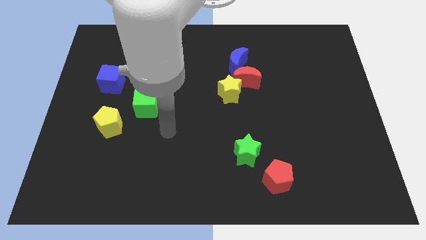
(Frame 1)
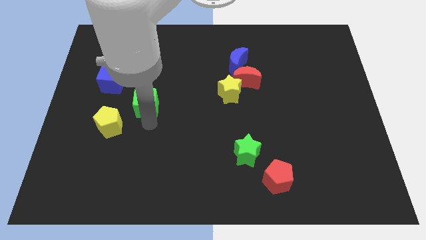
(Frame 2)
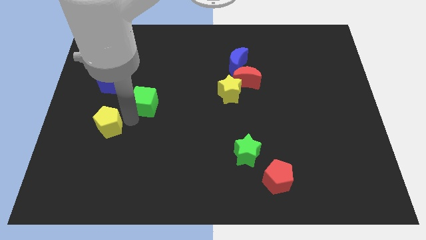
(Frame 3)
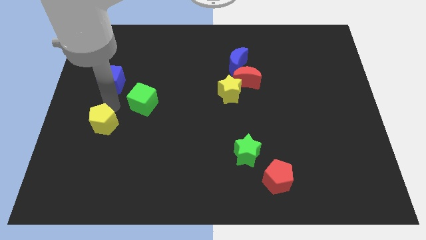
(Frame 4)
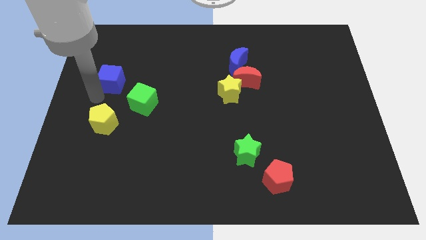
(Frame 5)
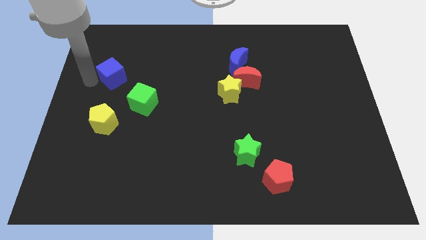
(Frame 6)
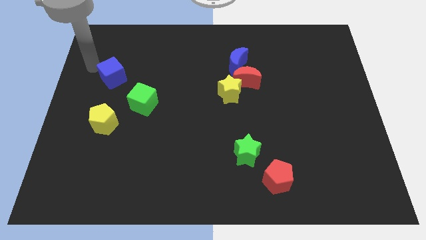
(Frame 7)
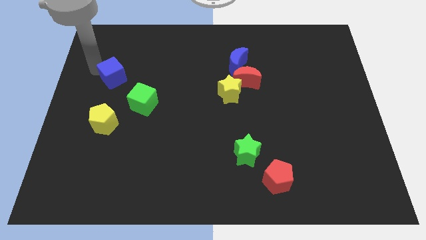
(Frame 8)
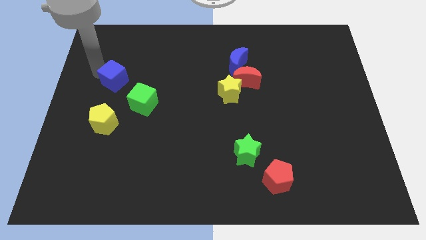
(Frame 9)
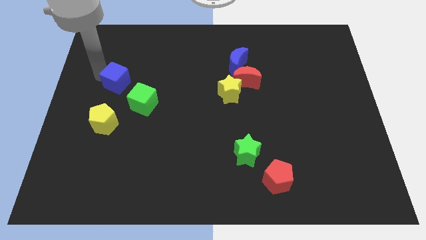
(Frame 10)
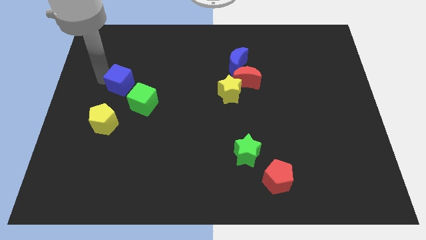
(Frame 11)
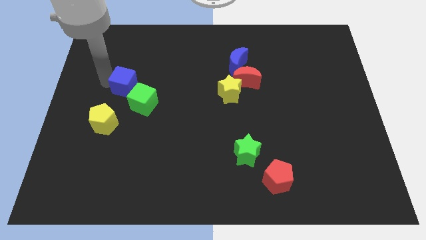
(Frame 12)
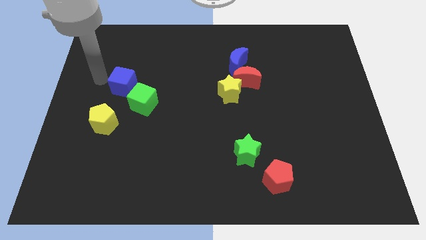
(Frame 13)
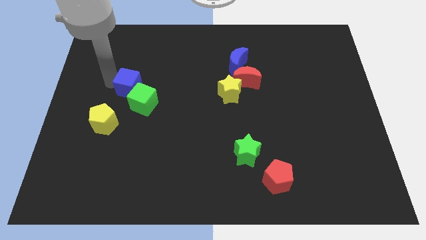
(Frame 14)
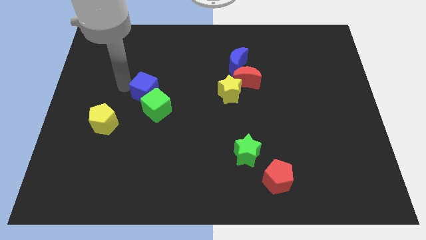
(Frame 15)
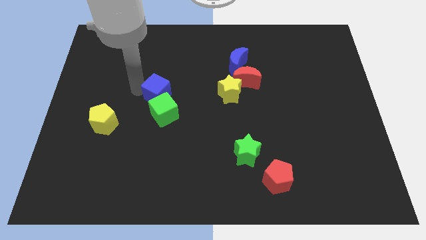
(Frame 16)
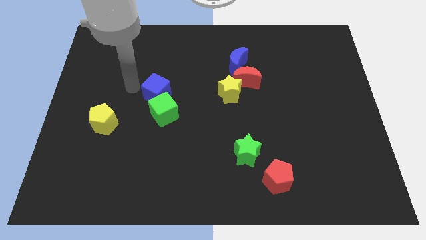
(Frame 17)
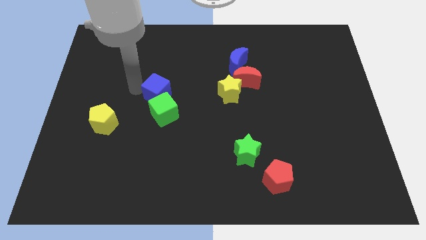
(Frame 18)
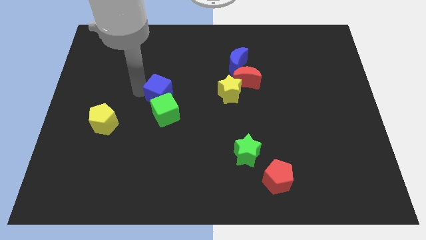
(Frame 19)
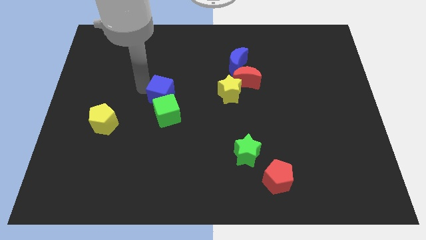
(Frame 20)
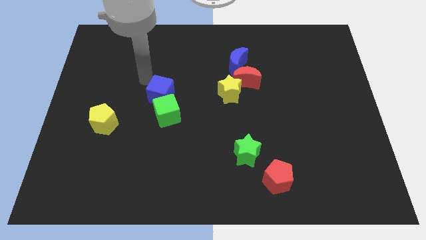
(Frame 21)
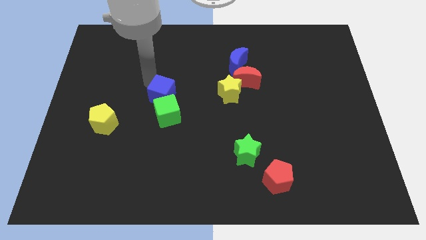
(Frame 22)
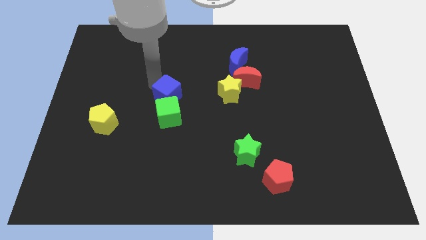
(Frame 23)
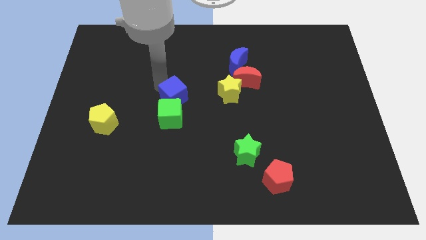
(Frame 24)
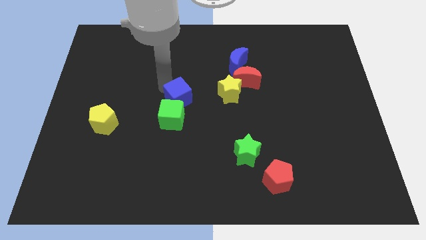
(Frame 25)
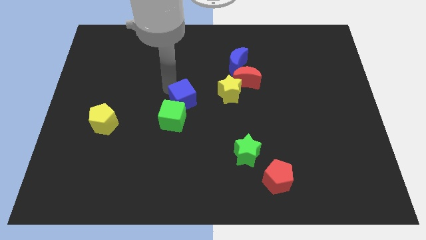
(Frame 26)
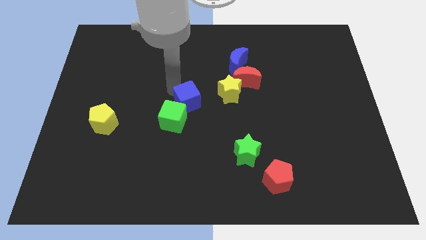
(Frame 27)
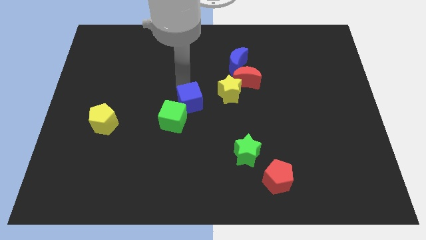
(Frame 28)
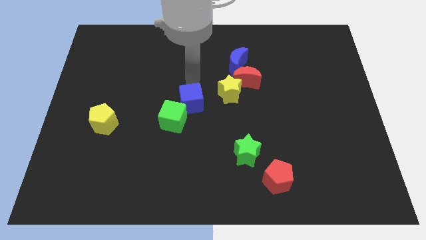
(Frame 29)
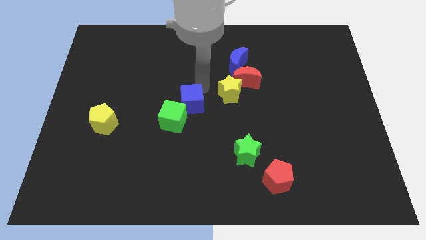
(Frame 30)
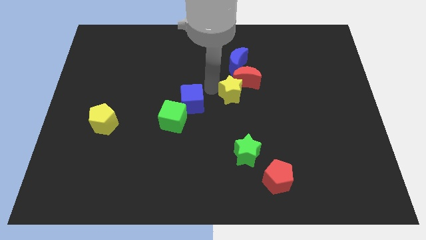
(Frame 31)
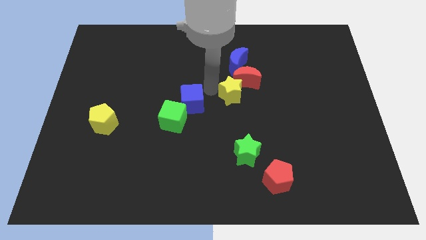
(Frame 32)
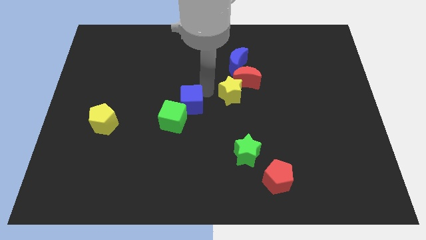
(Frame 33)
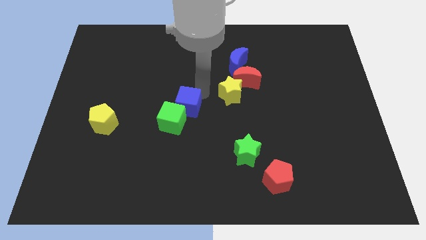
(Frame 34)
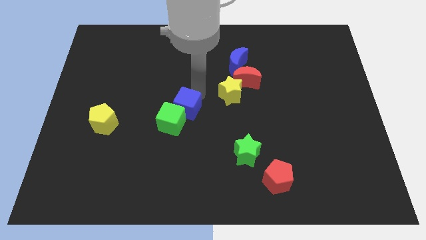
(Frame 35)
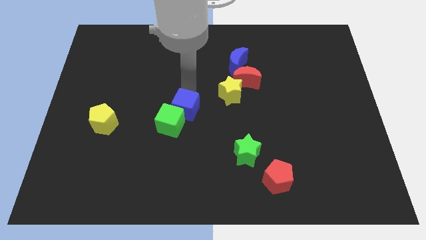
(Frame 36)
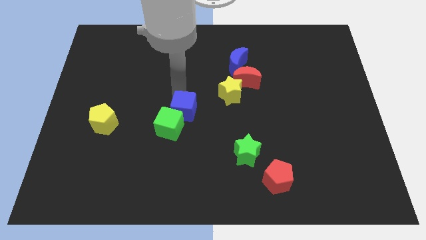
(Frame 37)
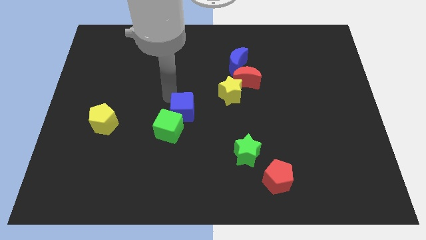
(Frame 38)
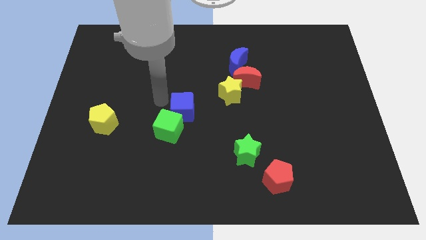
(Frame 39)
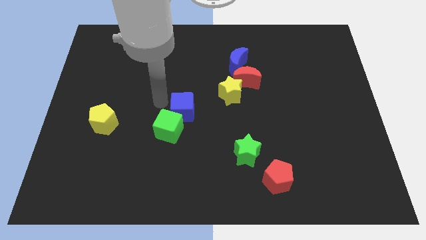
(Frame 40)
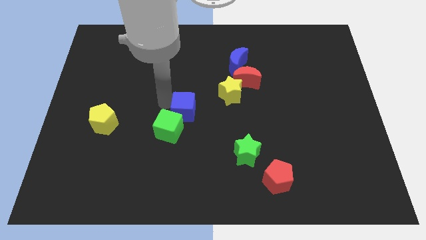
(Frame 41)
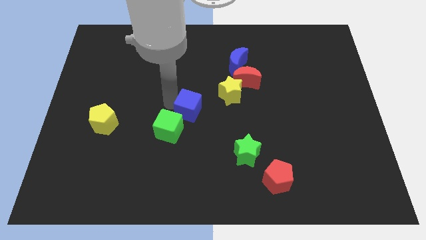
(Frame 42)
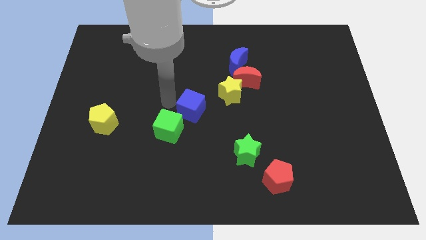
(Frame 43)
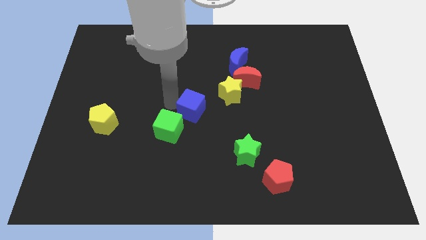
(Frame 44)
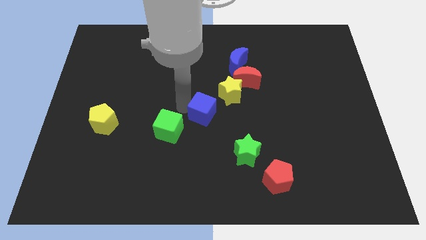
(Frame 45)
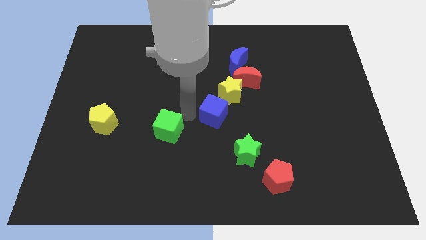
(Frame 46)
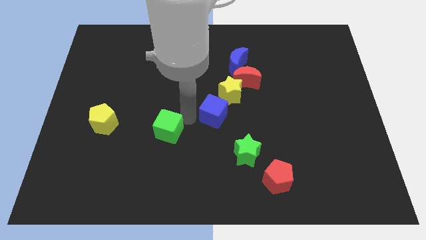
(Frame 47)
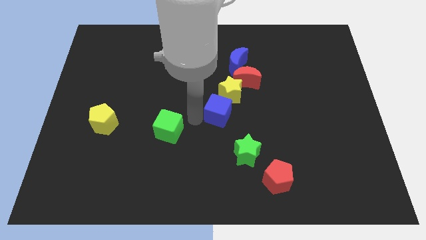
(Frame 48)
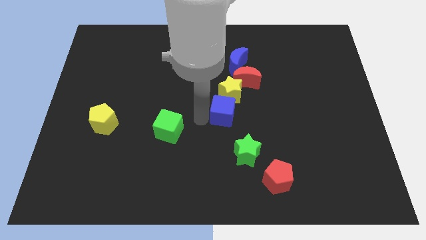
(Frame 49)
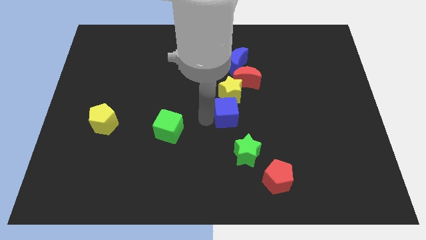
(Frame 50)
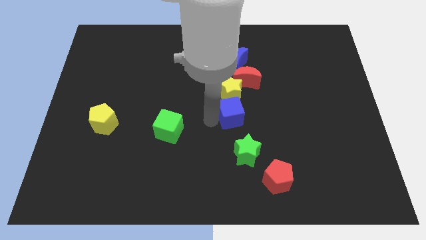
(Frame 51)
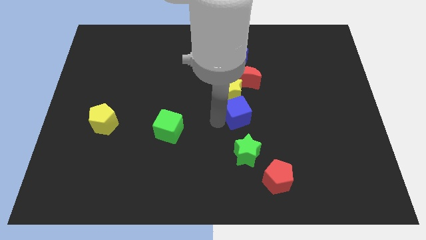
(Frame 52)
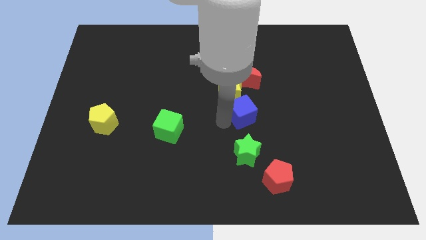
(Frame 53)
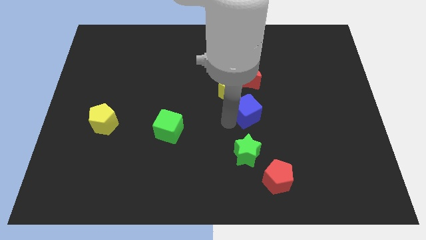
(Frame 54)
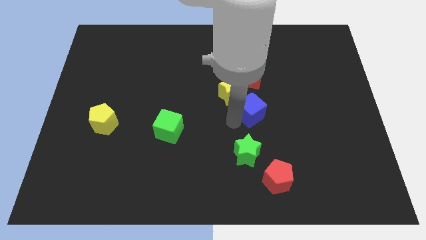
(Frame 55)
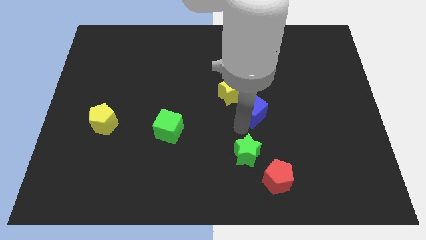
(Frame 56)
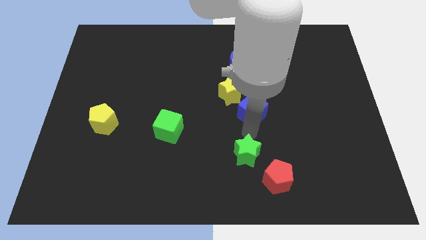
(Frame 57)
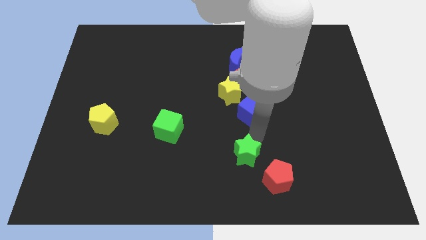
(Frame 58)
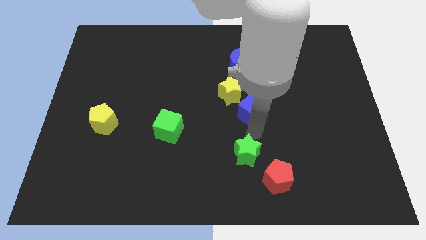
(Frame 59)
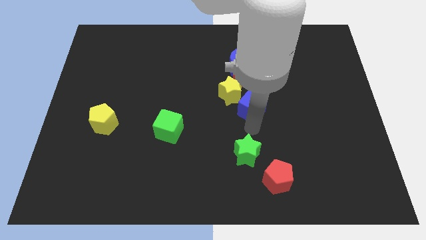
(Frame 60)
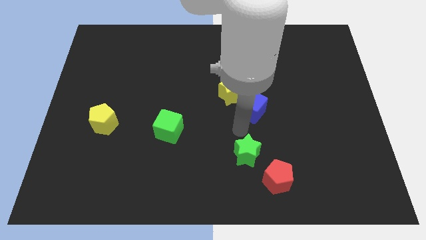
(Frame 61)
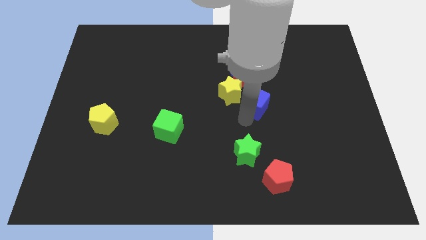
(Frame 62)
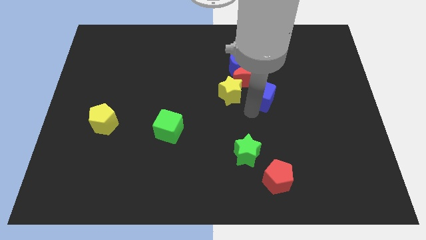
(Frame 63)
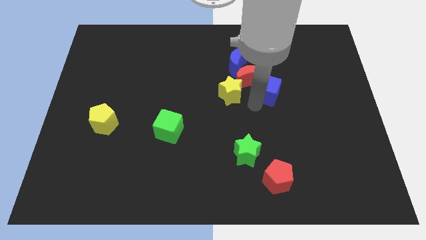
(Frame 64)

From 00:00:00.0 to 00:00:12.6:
put the blue cube just right of the red moon
